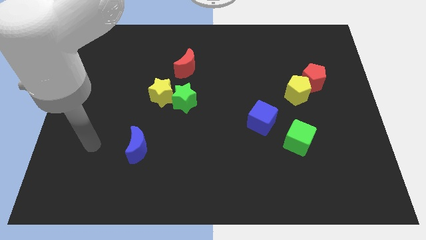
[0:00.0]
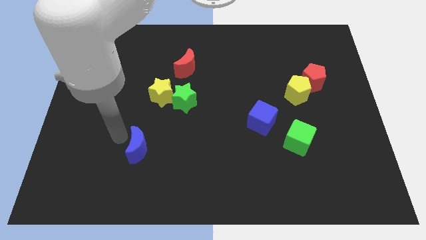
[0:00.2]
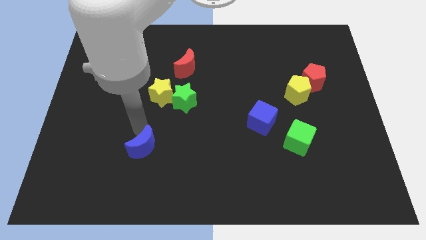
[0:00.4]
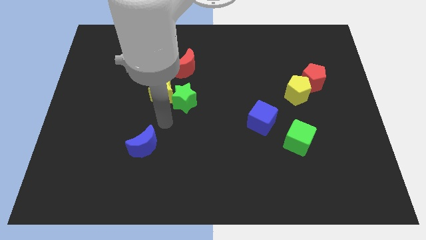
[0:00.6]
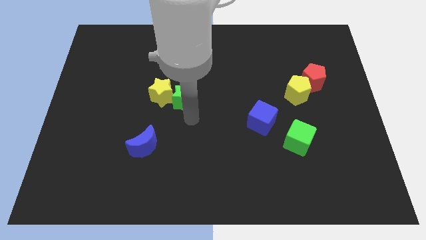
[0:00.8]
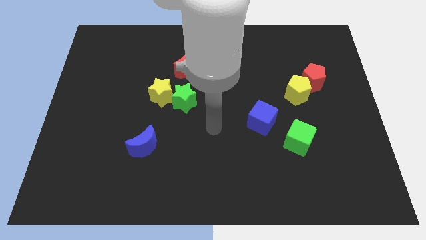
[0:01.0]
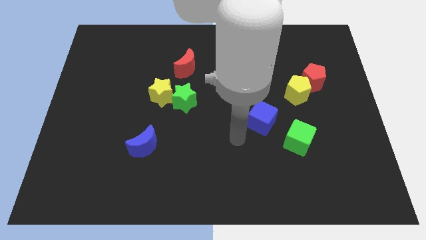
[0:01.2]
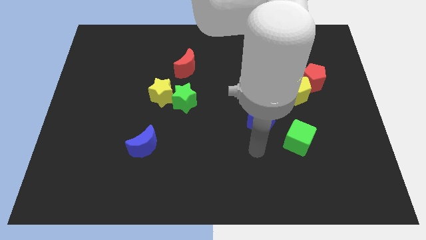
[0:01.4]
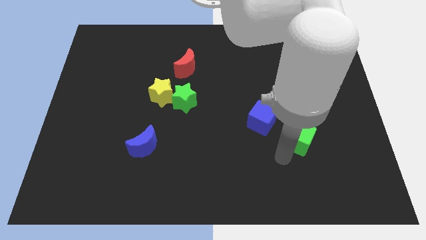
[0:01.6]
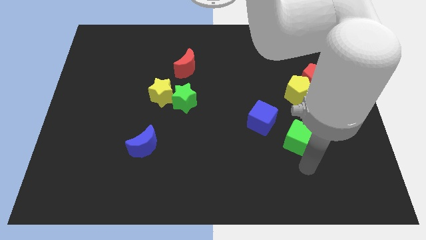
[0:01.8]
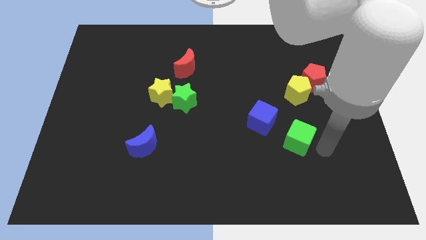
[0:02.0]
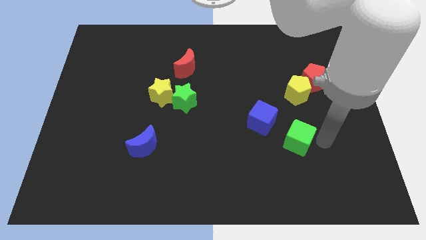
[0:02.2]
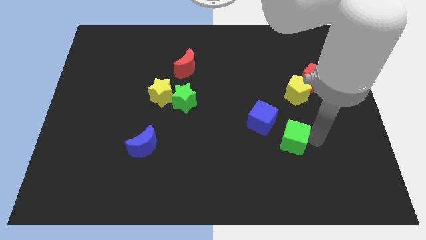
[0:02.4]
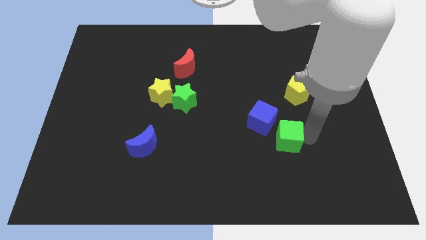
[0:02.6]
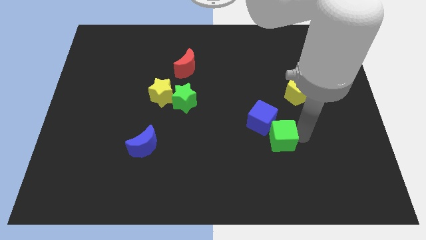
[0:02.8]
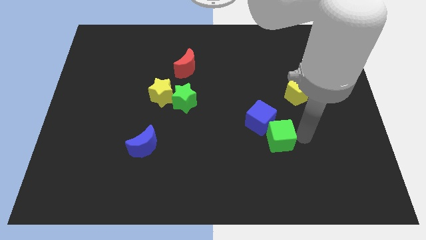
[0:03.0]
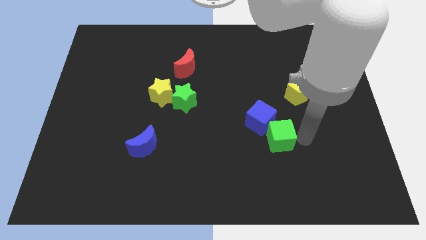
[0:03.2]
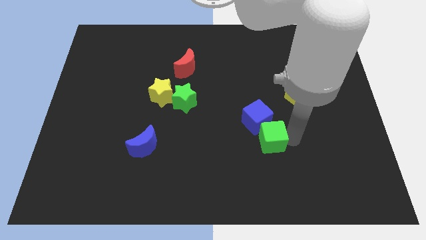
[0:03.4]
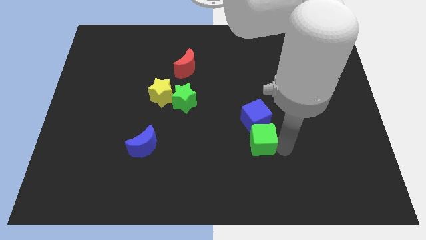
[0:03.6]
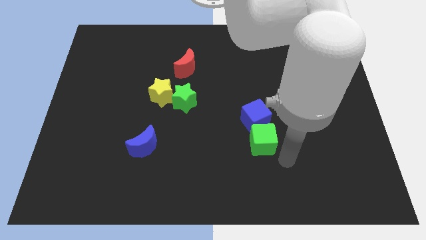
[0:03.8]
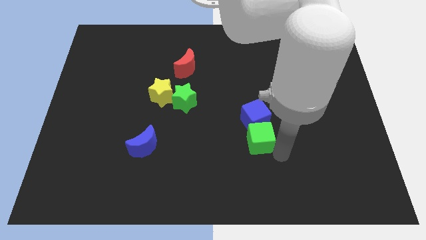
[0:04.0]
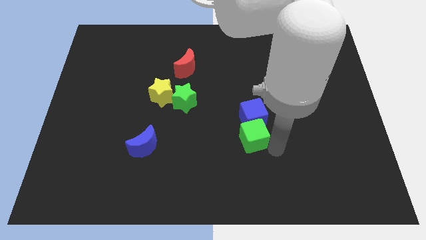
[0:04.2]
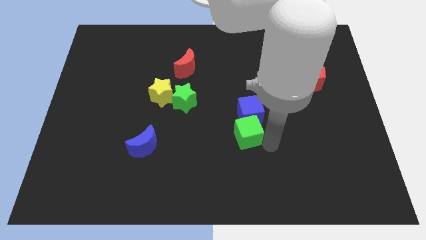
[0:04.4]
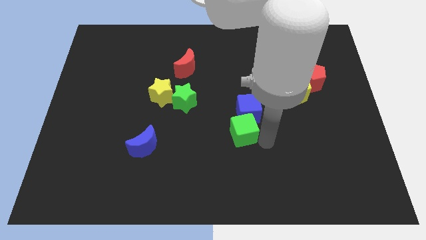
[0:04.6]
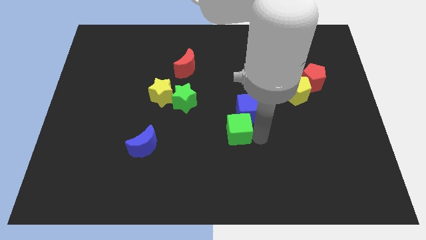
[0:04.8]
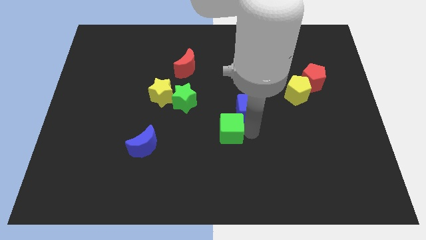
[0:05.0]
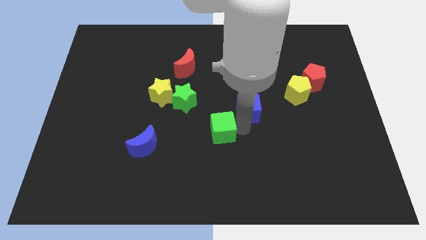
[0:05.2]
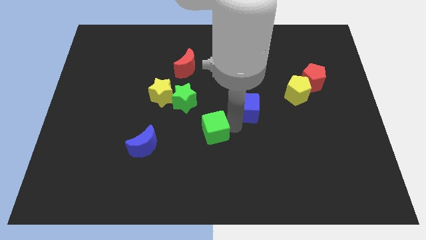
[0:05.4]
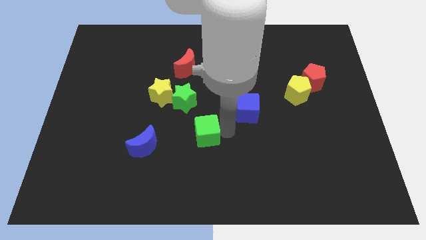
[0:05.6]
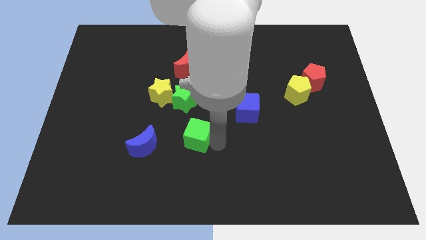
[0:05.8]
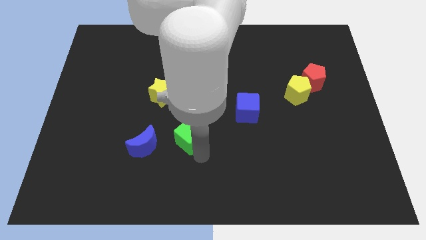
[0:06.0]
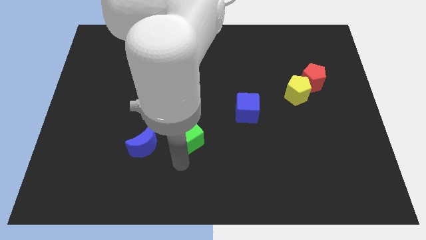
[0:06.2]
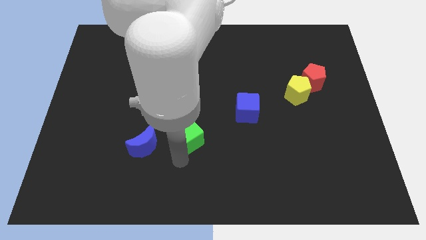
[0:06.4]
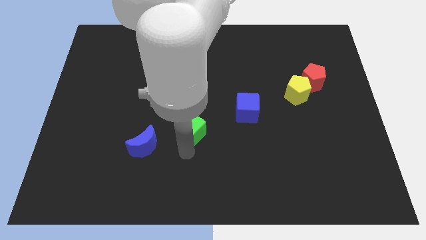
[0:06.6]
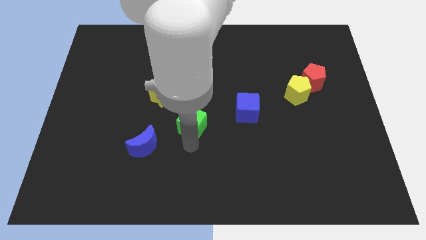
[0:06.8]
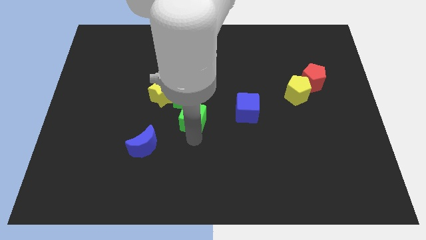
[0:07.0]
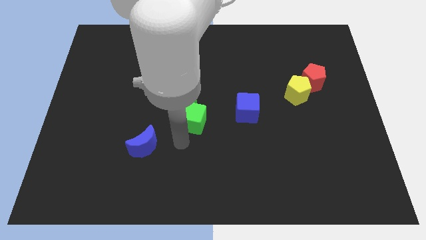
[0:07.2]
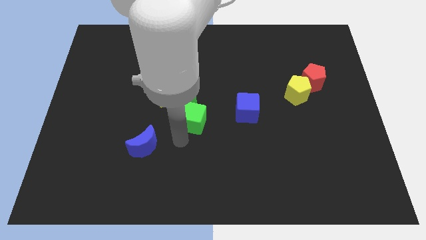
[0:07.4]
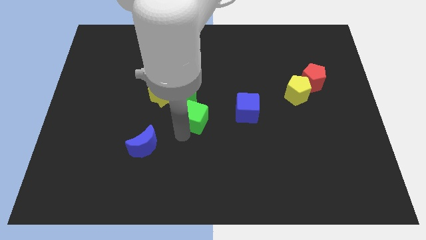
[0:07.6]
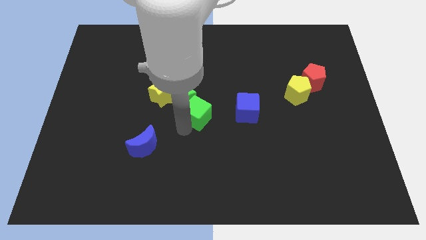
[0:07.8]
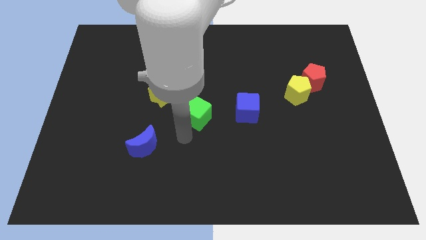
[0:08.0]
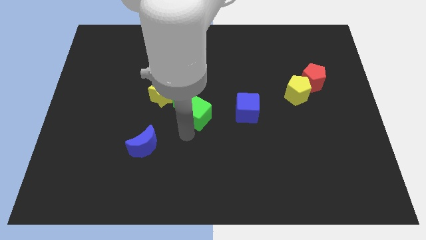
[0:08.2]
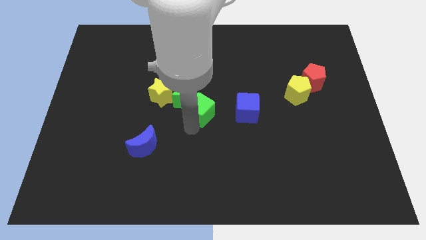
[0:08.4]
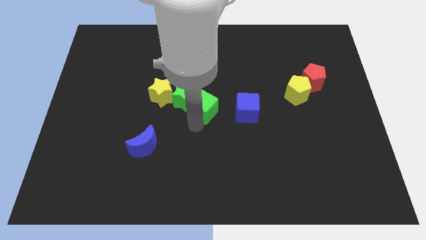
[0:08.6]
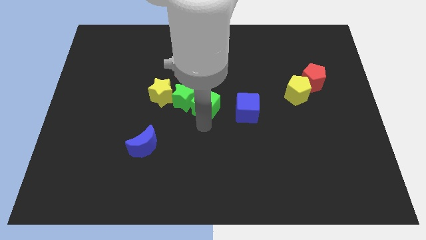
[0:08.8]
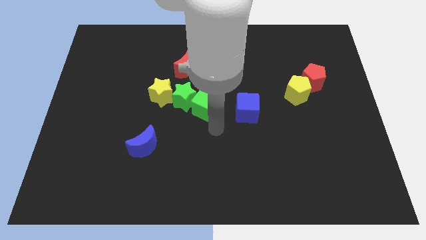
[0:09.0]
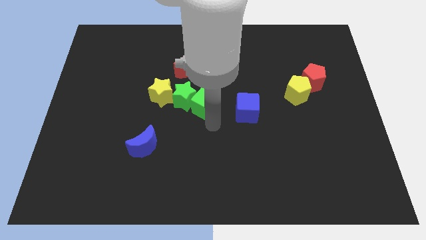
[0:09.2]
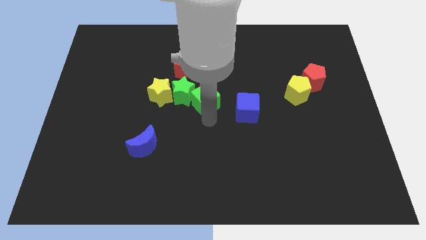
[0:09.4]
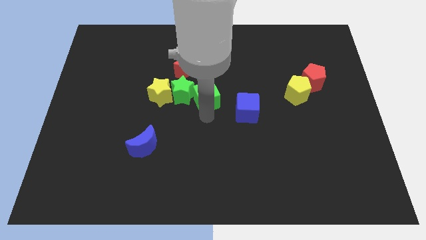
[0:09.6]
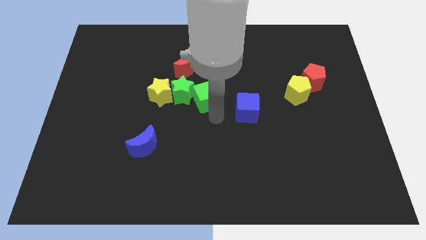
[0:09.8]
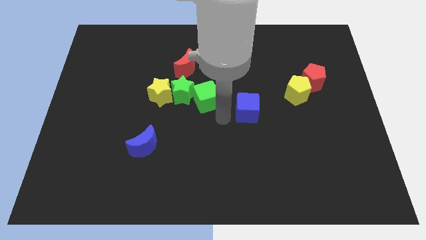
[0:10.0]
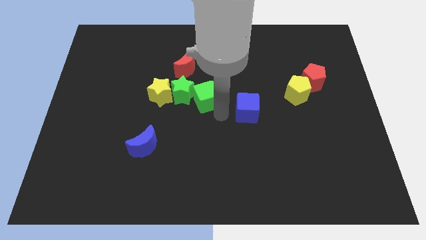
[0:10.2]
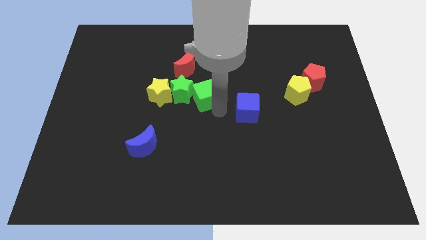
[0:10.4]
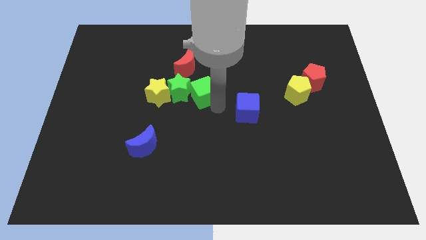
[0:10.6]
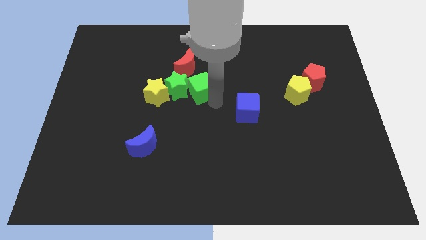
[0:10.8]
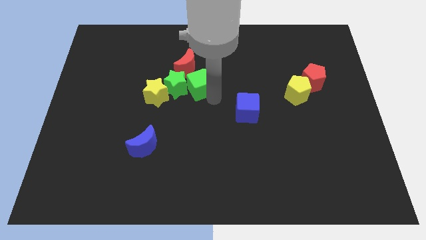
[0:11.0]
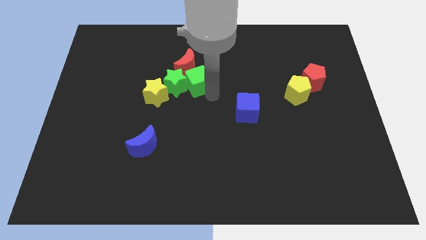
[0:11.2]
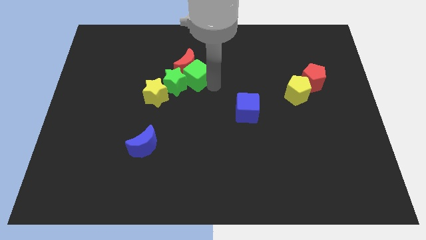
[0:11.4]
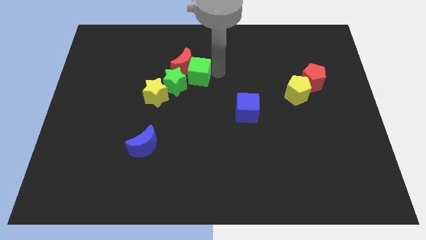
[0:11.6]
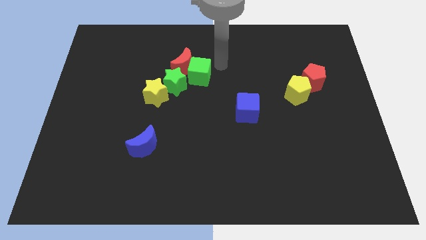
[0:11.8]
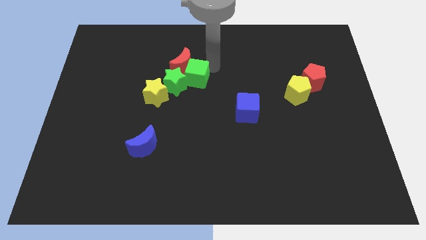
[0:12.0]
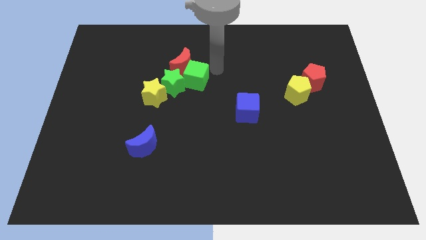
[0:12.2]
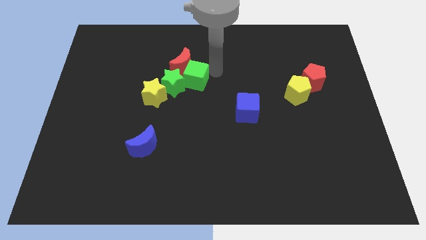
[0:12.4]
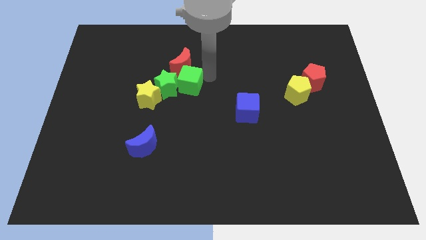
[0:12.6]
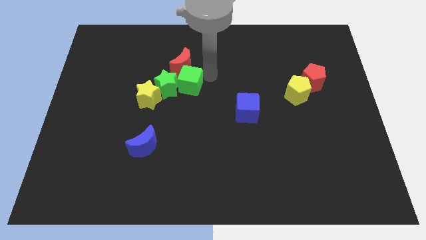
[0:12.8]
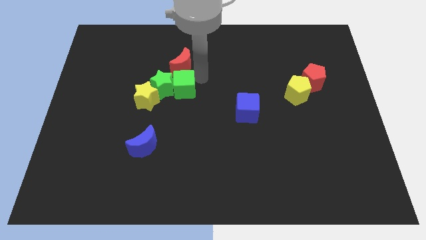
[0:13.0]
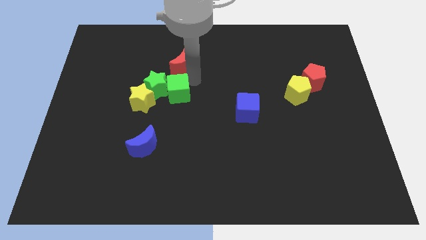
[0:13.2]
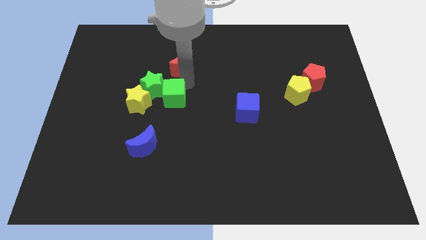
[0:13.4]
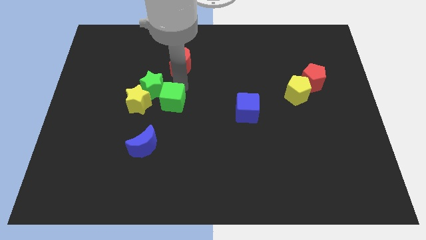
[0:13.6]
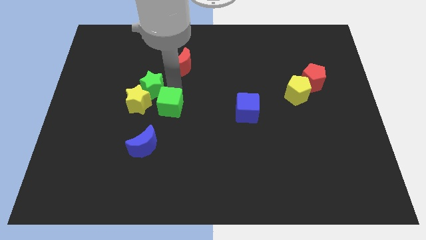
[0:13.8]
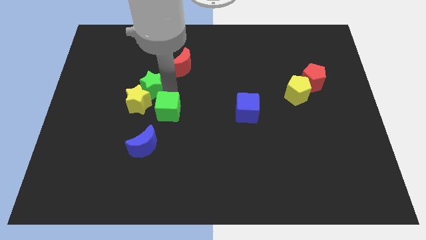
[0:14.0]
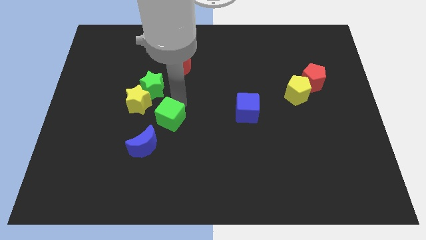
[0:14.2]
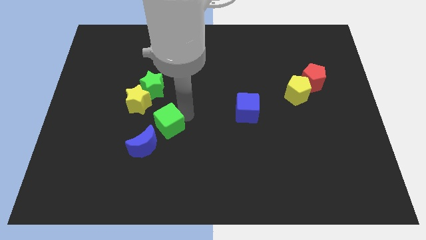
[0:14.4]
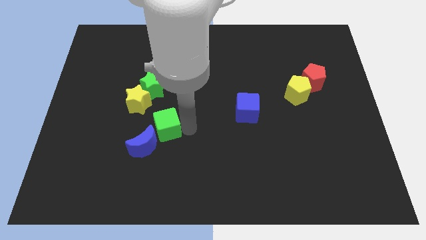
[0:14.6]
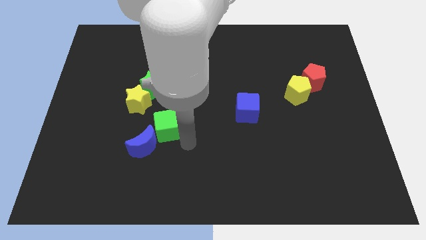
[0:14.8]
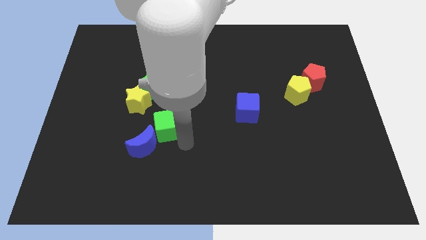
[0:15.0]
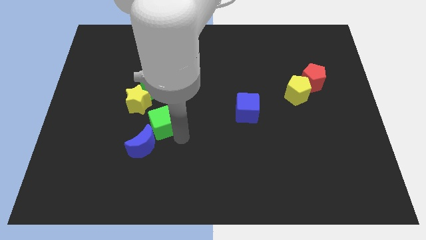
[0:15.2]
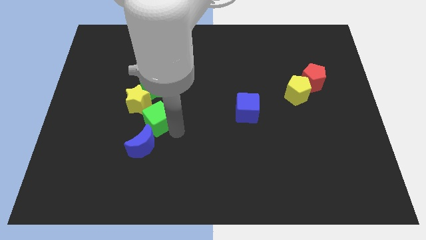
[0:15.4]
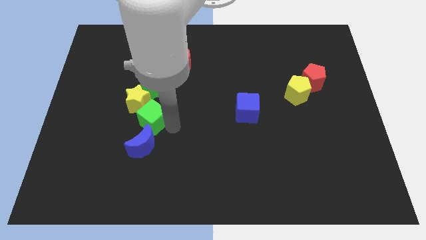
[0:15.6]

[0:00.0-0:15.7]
move the green cube to the yellow star

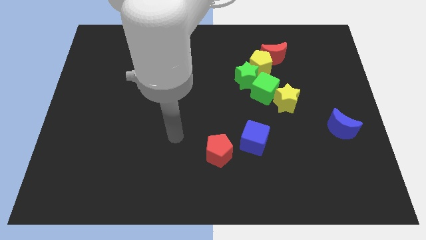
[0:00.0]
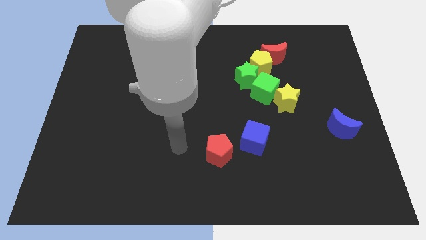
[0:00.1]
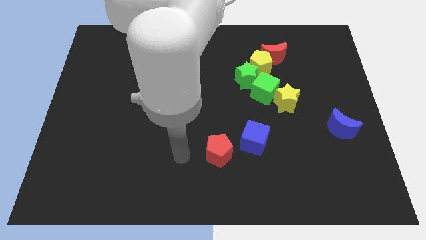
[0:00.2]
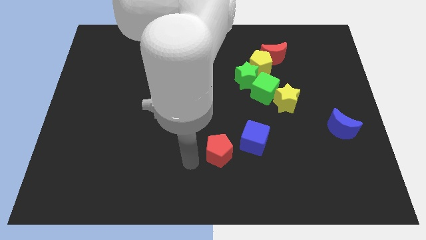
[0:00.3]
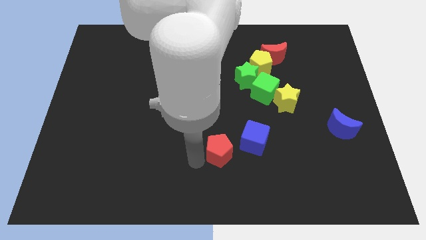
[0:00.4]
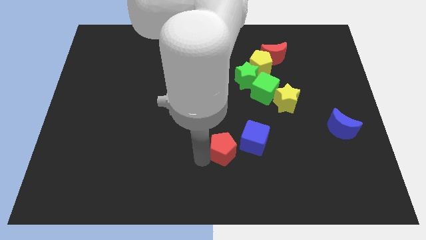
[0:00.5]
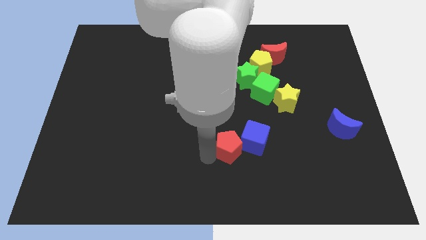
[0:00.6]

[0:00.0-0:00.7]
slide the red pentagon to the blue cube
